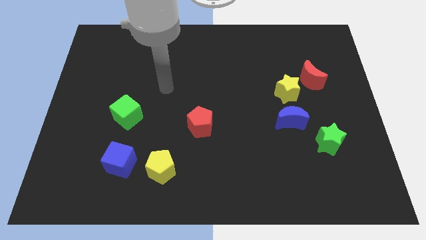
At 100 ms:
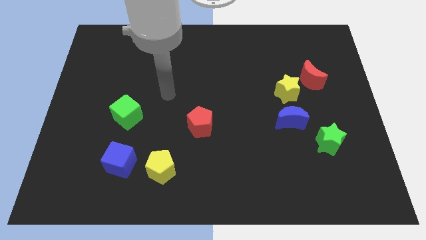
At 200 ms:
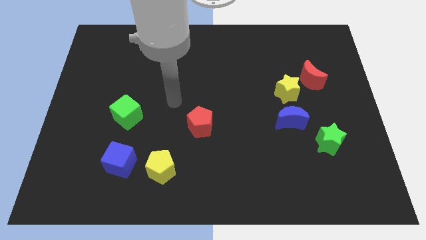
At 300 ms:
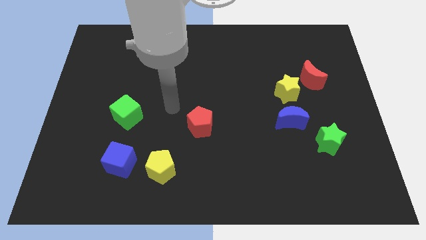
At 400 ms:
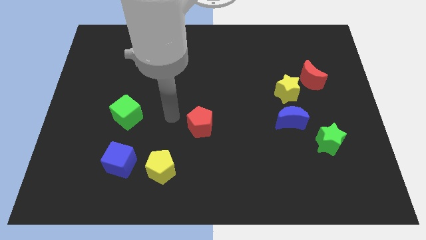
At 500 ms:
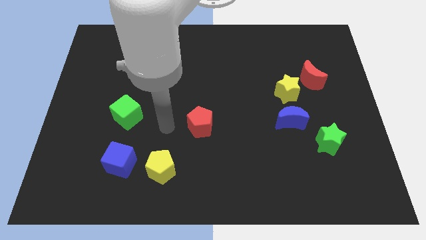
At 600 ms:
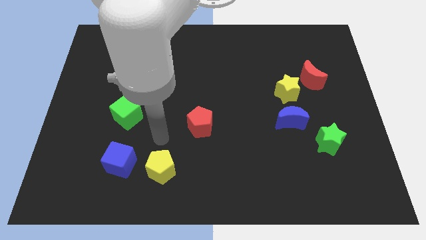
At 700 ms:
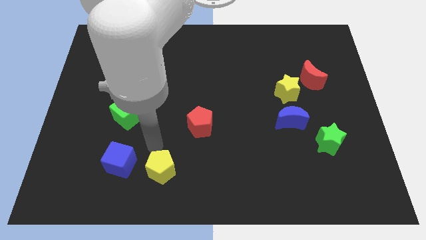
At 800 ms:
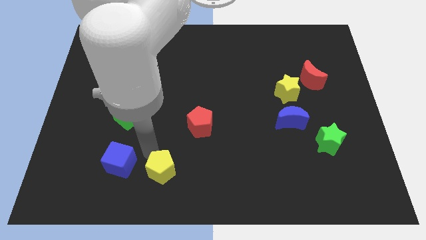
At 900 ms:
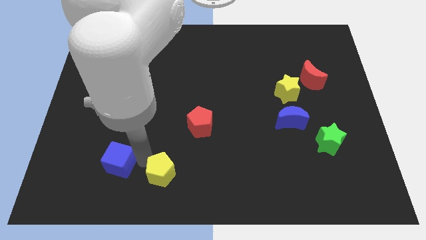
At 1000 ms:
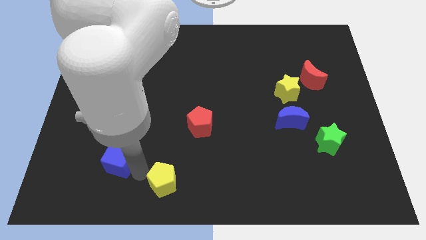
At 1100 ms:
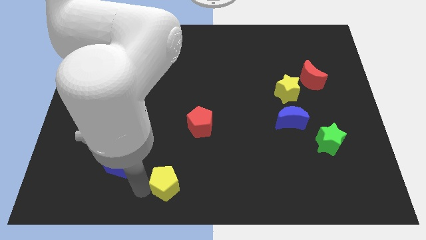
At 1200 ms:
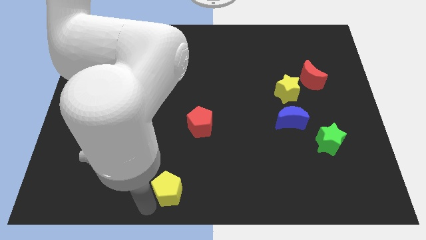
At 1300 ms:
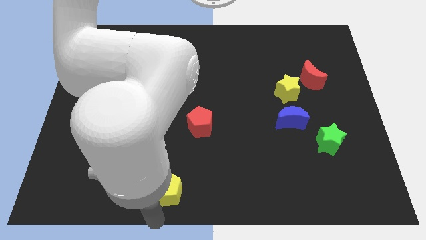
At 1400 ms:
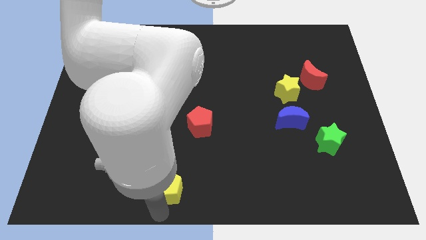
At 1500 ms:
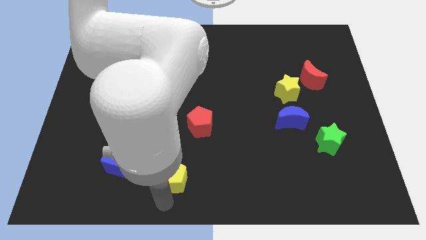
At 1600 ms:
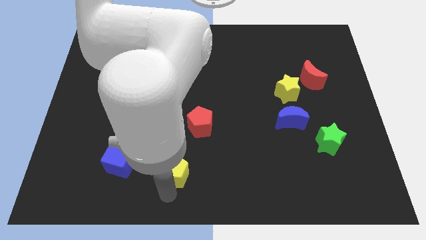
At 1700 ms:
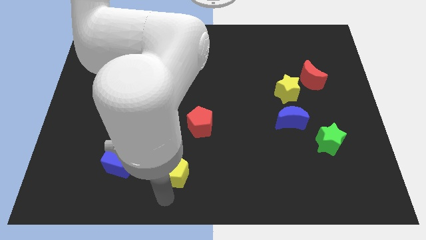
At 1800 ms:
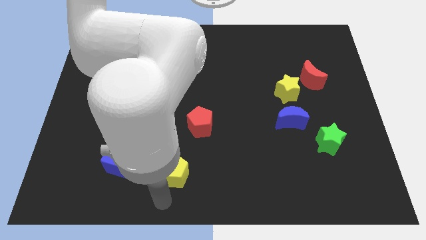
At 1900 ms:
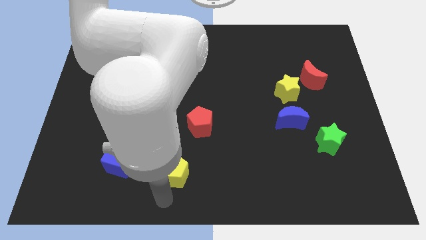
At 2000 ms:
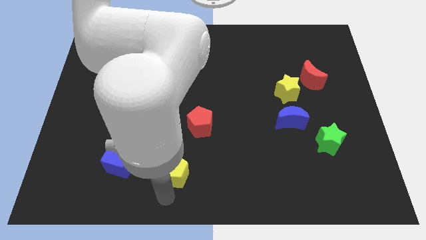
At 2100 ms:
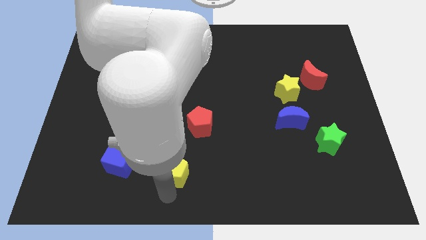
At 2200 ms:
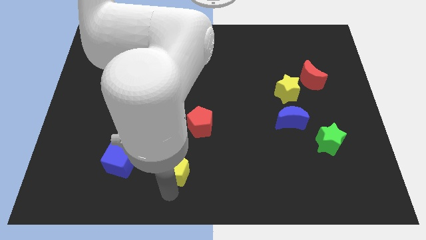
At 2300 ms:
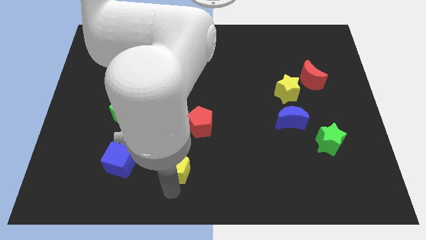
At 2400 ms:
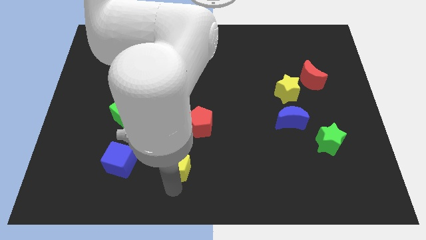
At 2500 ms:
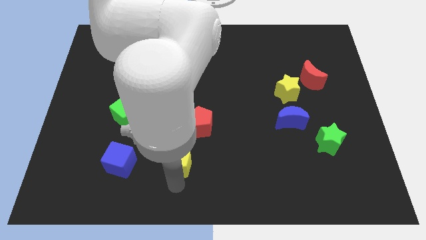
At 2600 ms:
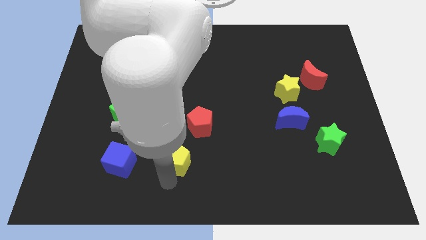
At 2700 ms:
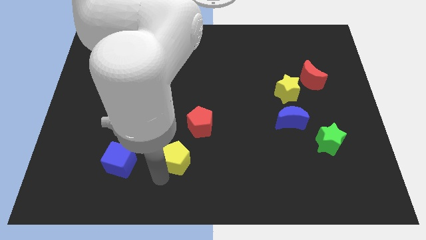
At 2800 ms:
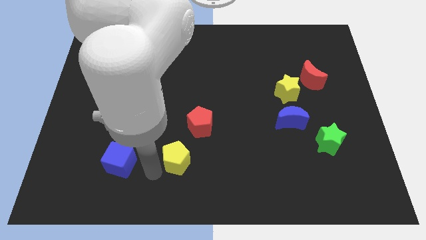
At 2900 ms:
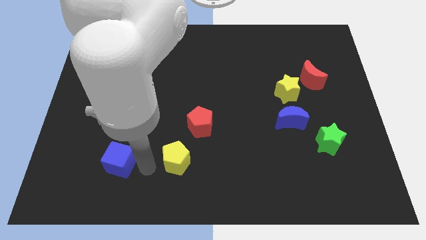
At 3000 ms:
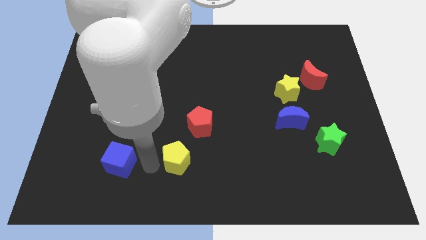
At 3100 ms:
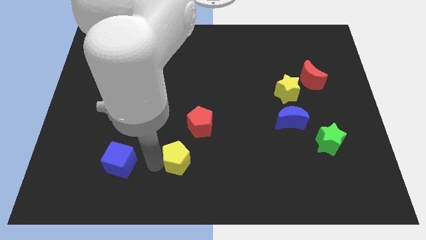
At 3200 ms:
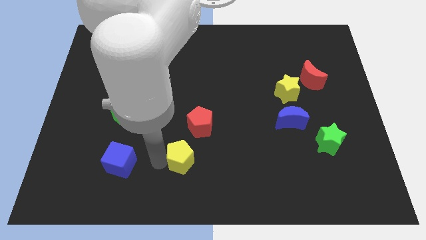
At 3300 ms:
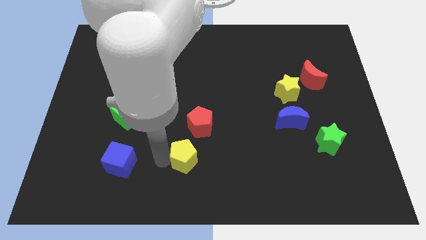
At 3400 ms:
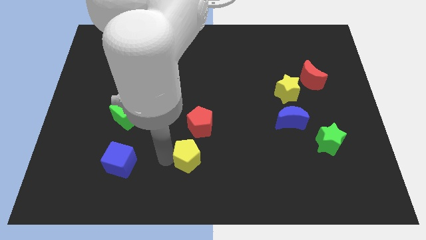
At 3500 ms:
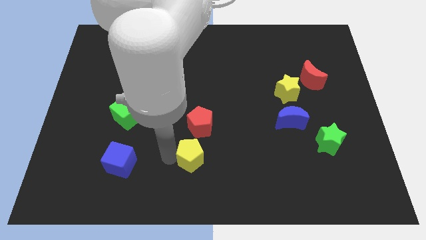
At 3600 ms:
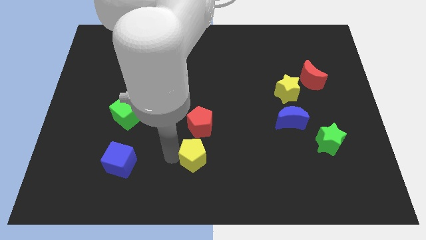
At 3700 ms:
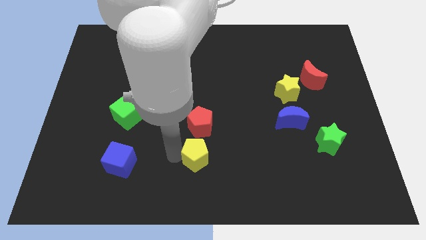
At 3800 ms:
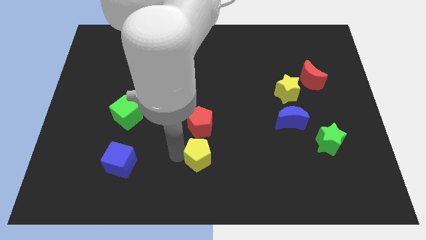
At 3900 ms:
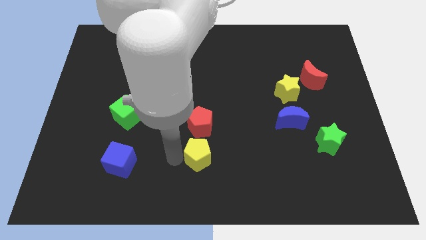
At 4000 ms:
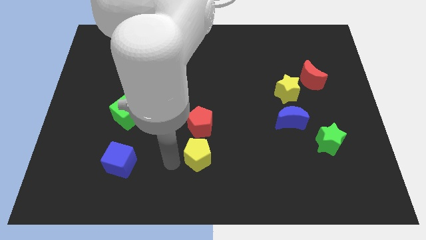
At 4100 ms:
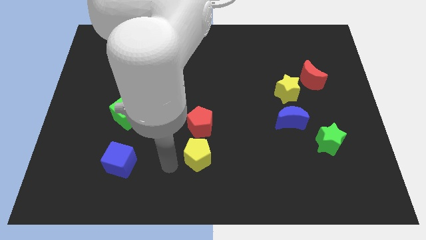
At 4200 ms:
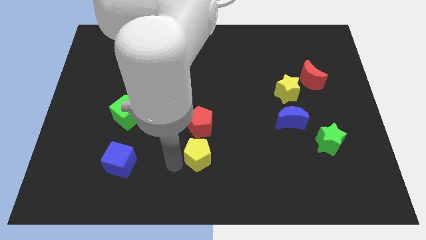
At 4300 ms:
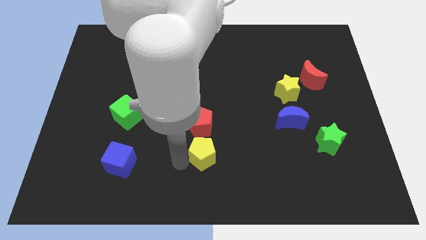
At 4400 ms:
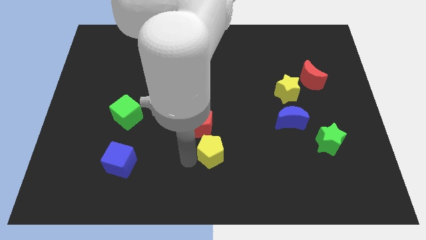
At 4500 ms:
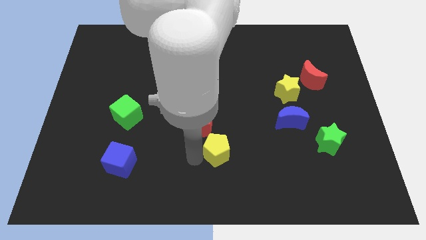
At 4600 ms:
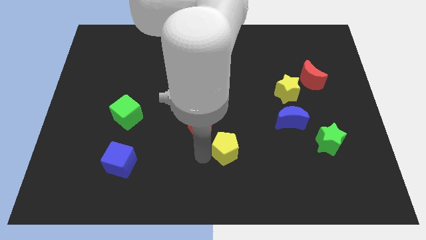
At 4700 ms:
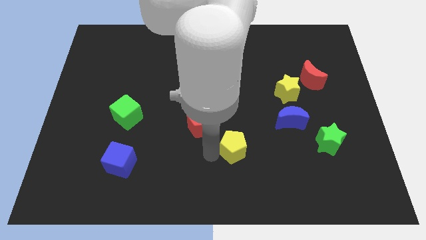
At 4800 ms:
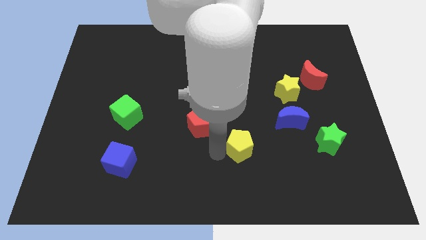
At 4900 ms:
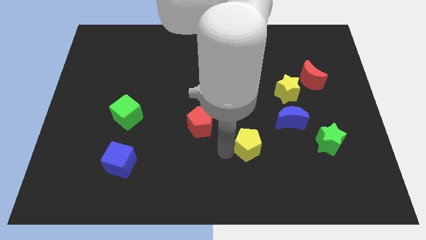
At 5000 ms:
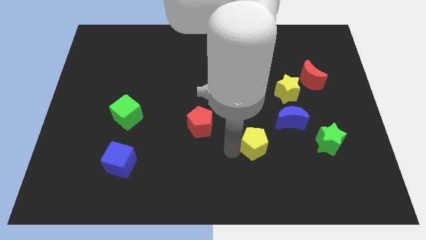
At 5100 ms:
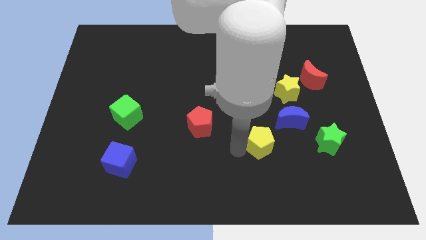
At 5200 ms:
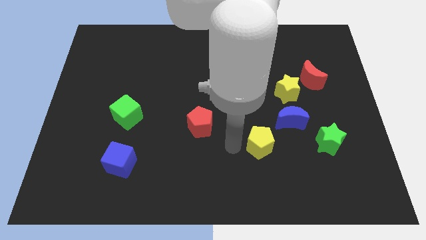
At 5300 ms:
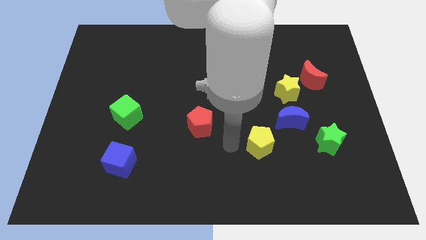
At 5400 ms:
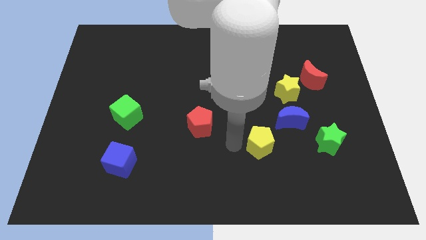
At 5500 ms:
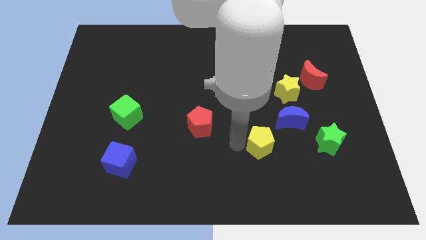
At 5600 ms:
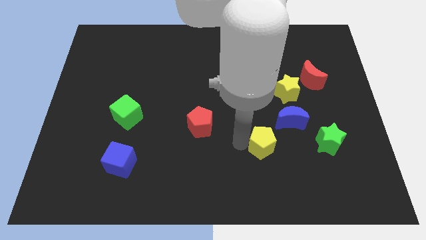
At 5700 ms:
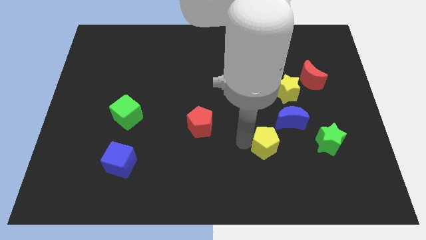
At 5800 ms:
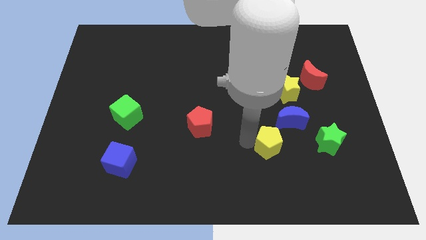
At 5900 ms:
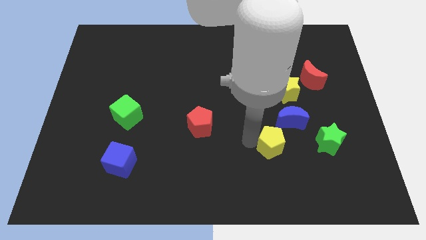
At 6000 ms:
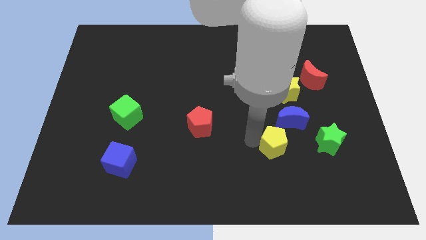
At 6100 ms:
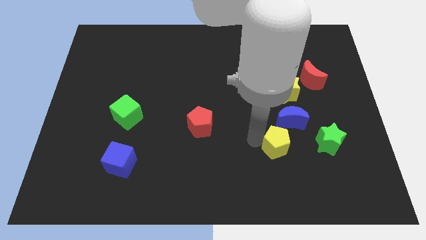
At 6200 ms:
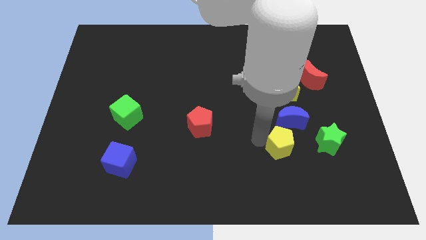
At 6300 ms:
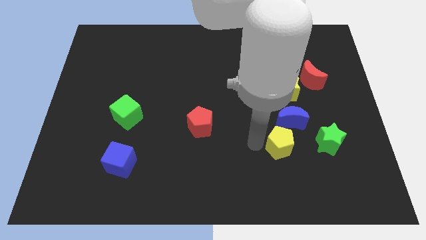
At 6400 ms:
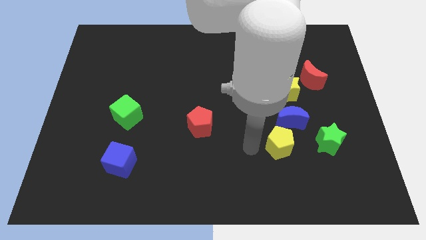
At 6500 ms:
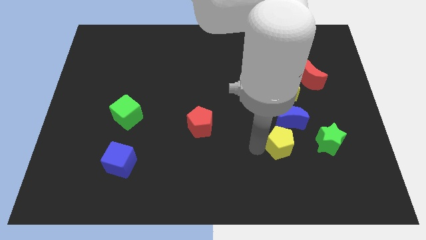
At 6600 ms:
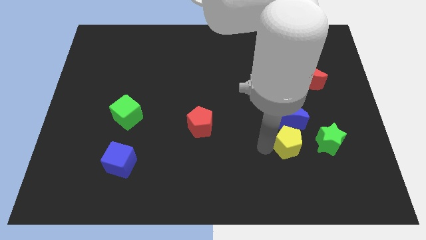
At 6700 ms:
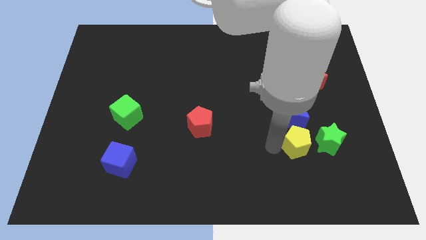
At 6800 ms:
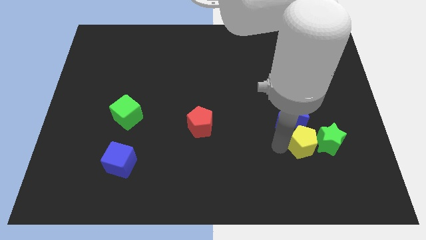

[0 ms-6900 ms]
move the yellow pentagon to the green star

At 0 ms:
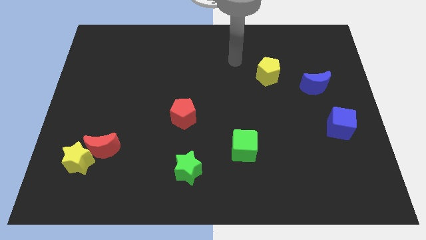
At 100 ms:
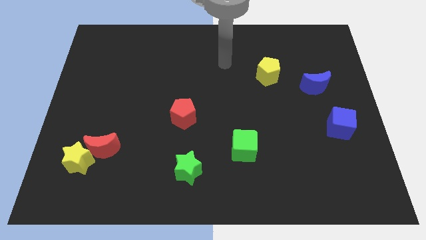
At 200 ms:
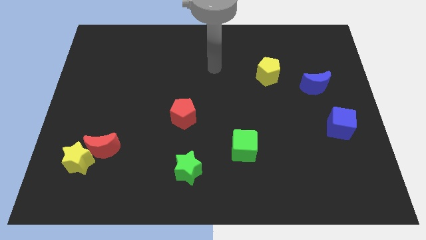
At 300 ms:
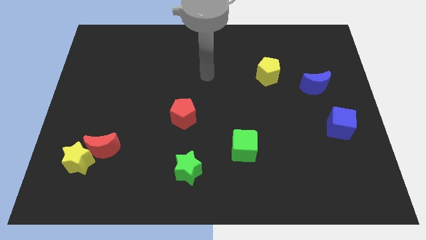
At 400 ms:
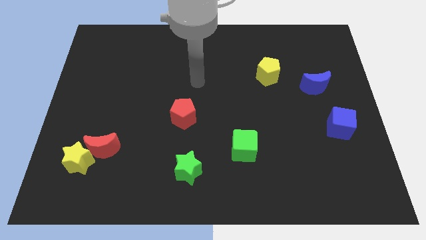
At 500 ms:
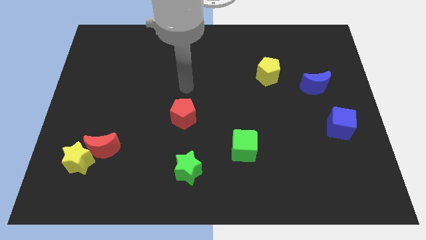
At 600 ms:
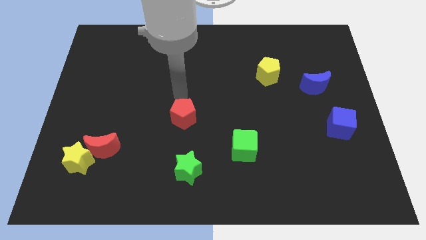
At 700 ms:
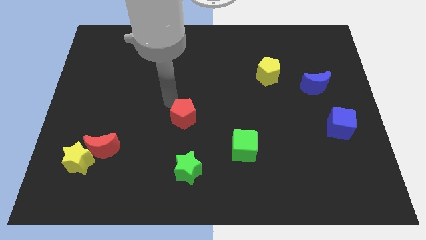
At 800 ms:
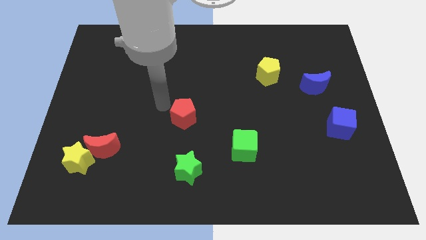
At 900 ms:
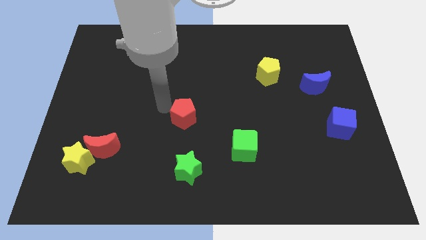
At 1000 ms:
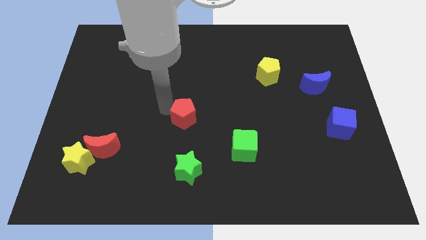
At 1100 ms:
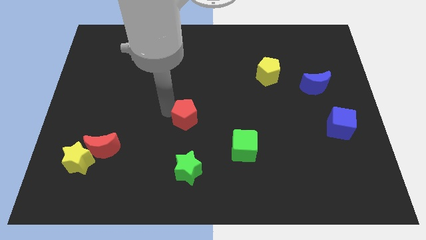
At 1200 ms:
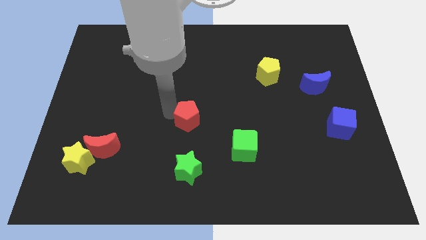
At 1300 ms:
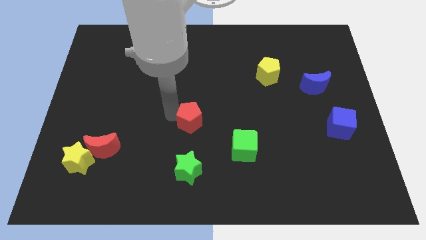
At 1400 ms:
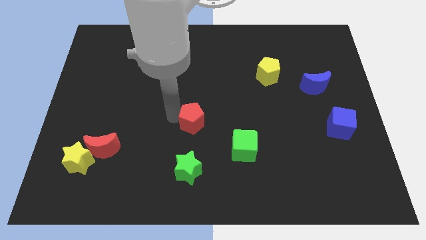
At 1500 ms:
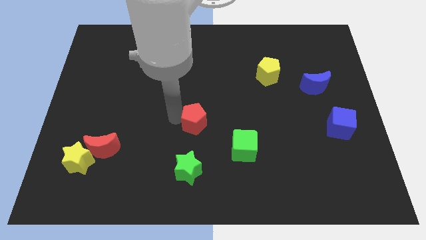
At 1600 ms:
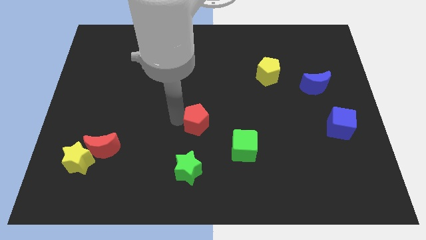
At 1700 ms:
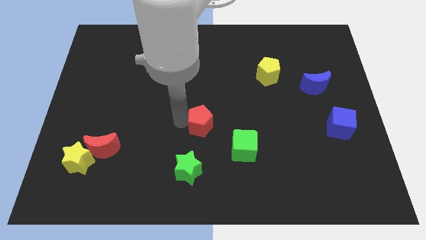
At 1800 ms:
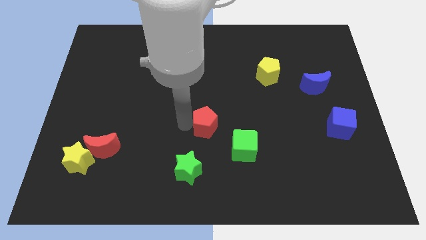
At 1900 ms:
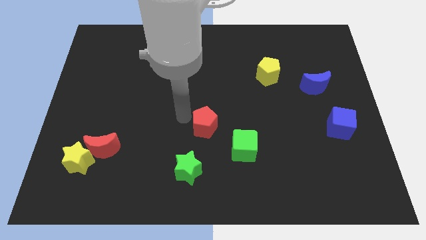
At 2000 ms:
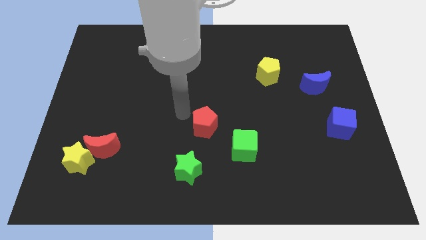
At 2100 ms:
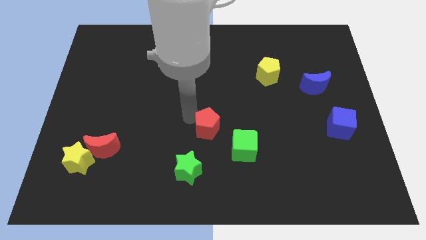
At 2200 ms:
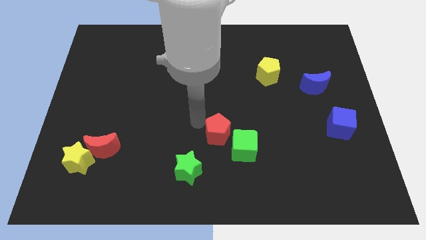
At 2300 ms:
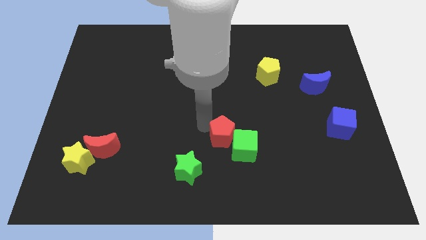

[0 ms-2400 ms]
put the red pentagon to the green cube
